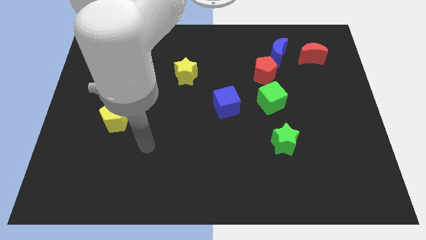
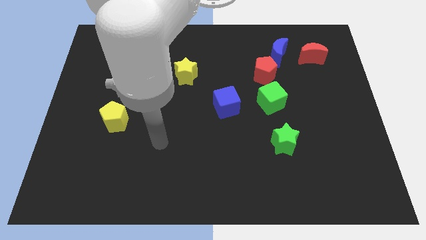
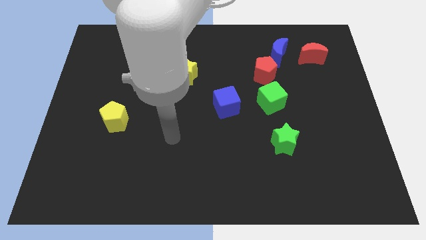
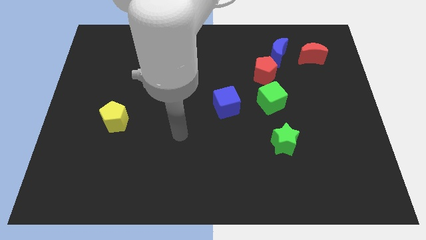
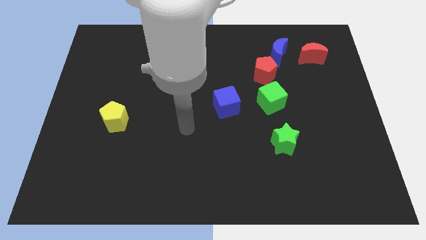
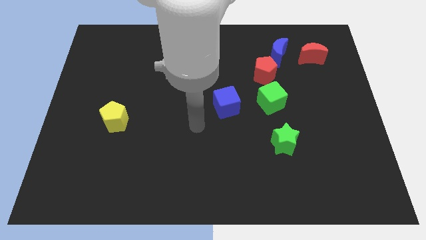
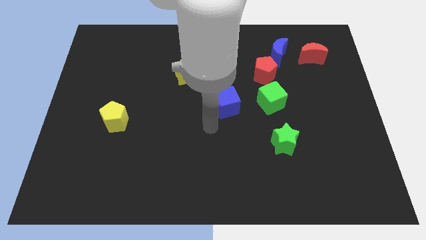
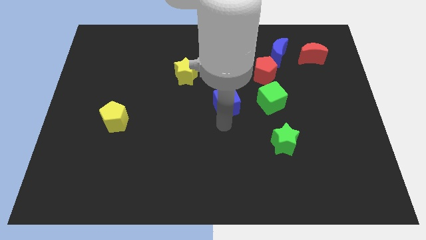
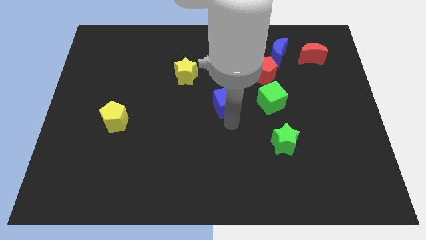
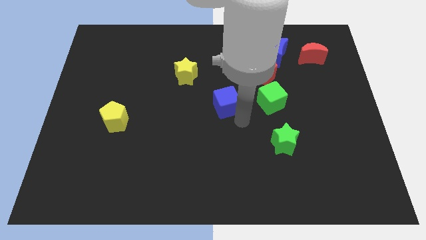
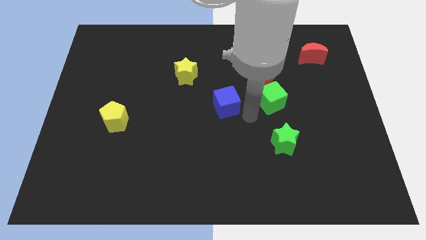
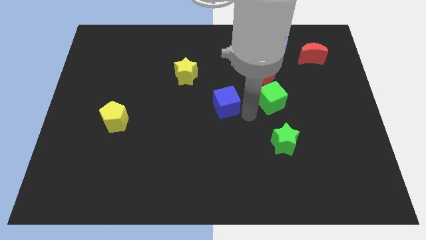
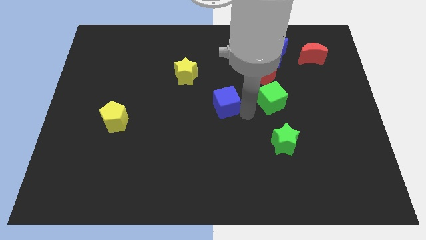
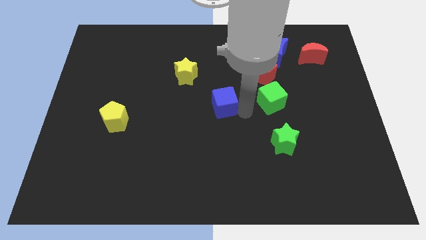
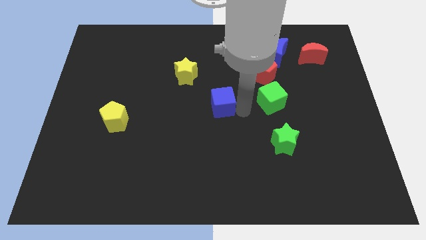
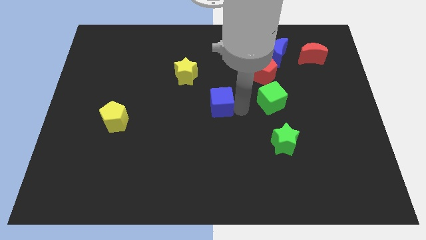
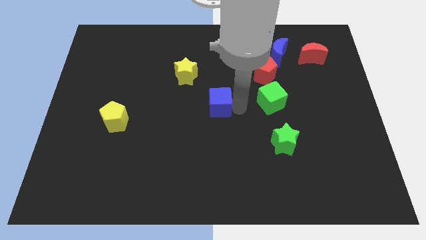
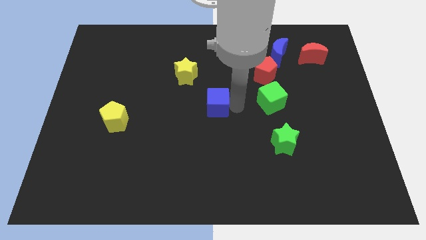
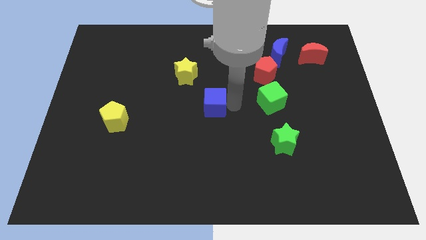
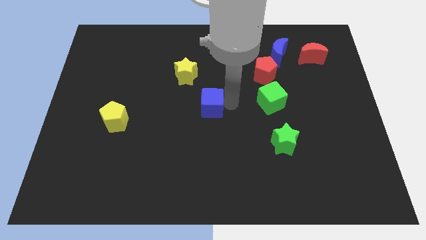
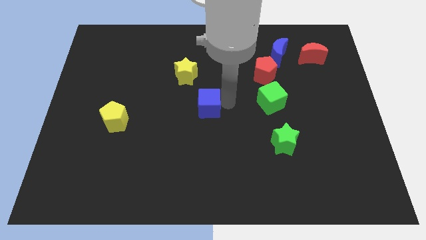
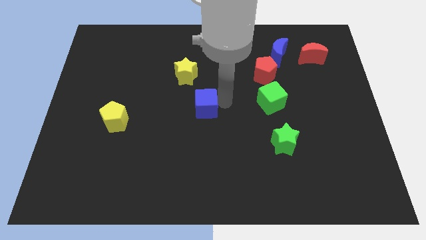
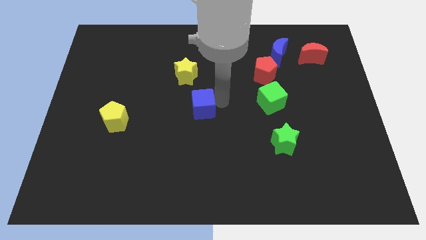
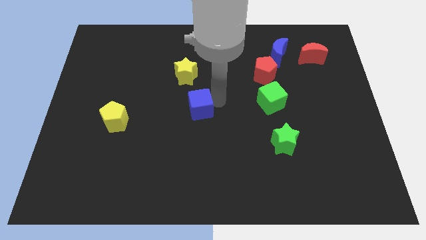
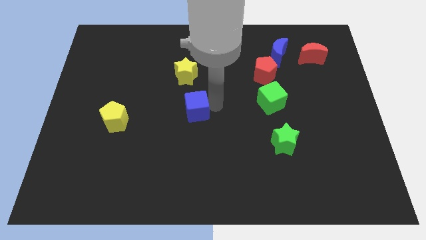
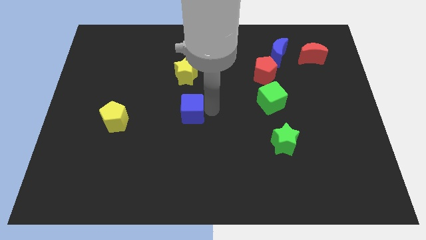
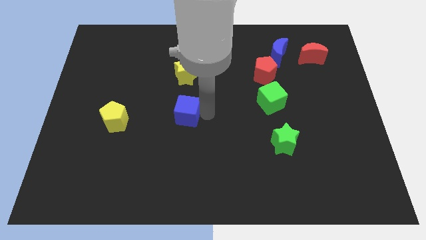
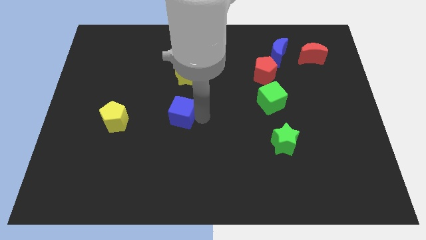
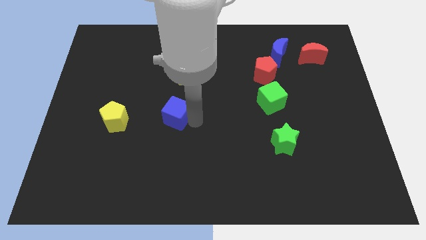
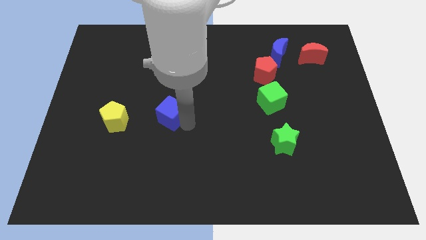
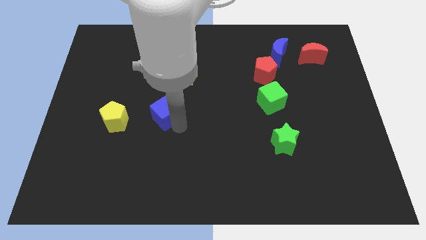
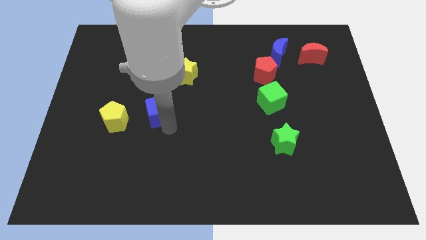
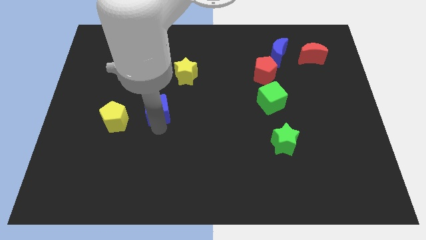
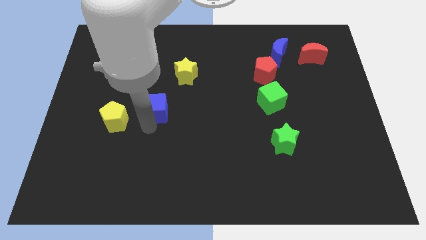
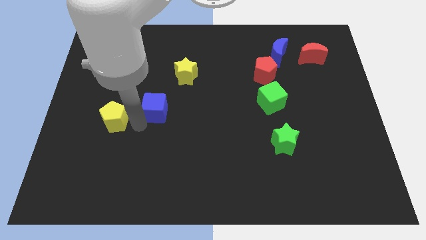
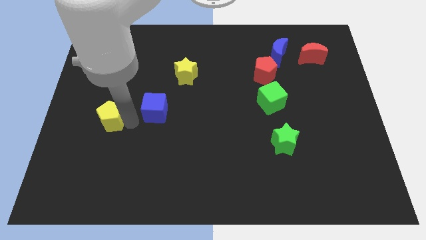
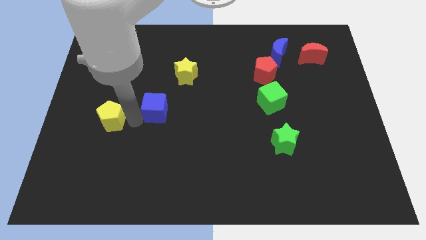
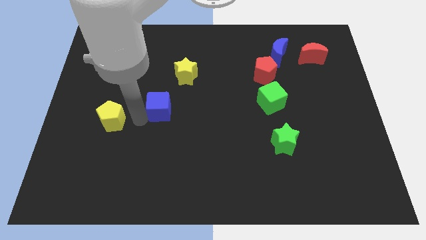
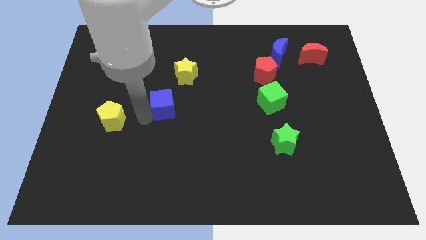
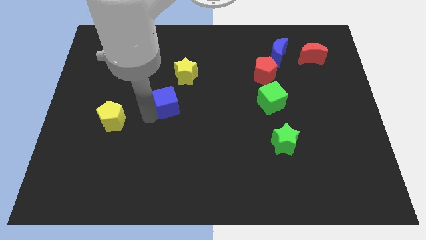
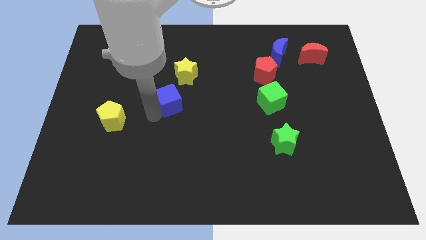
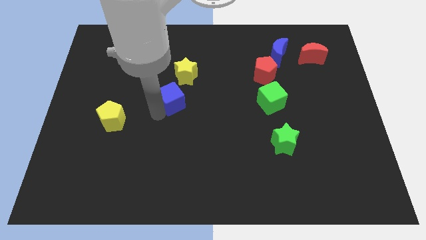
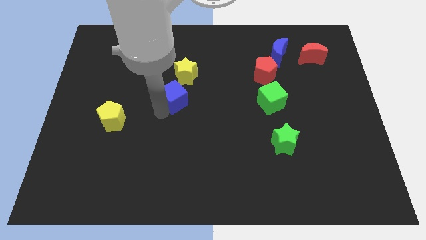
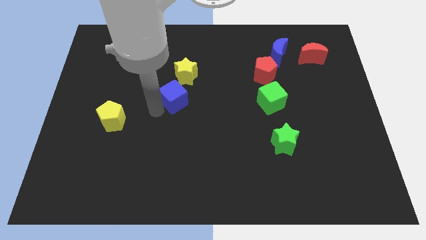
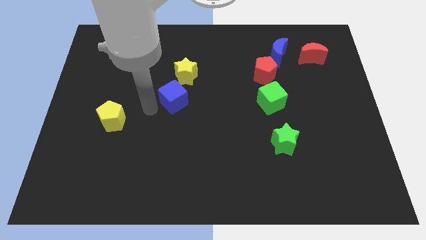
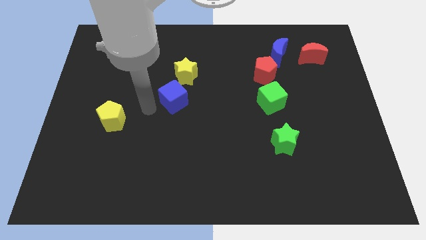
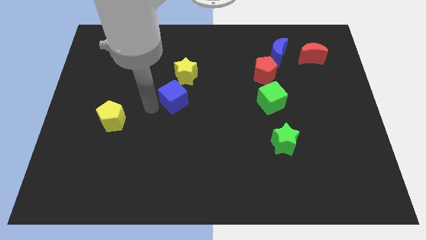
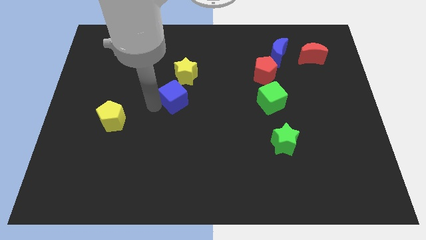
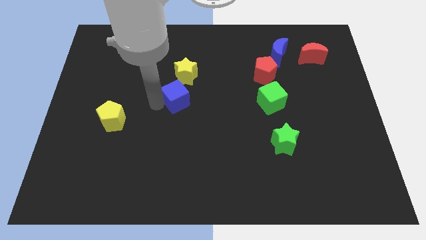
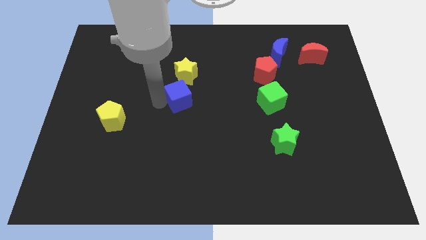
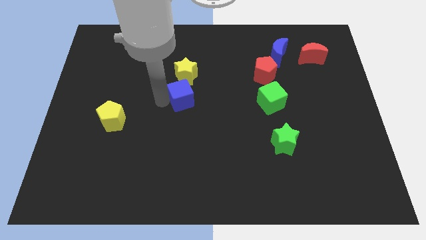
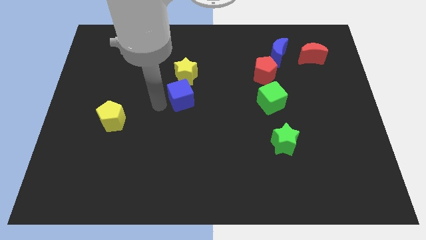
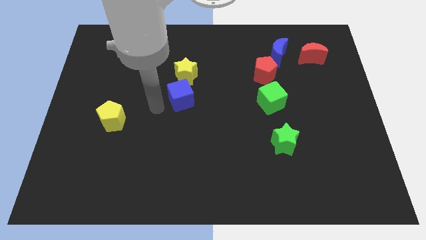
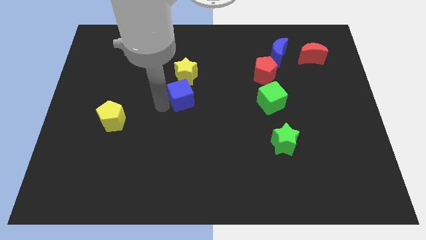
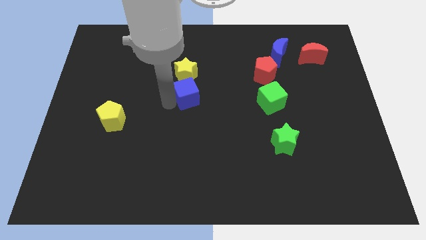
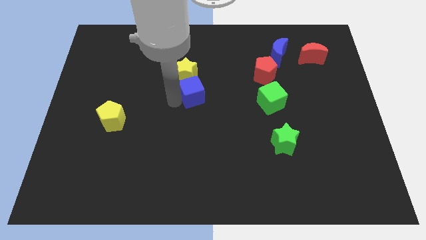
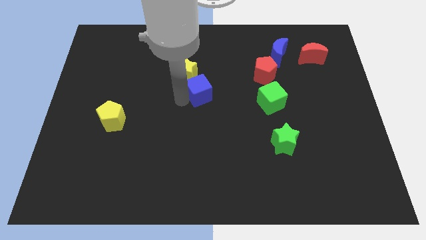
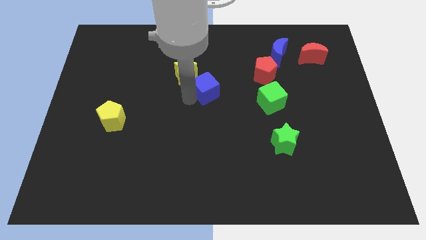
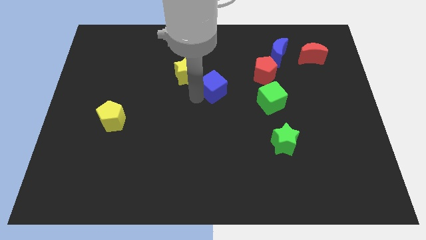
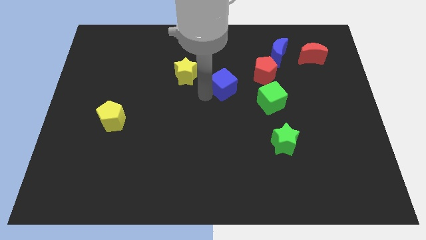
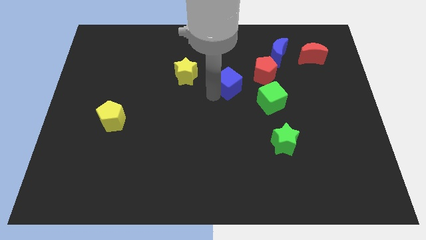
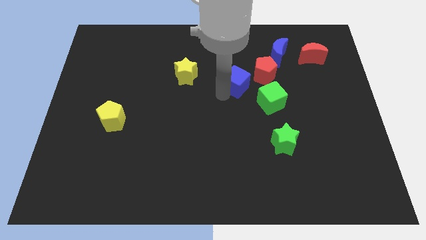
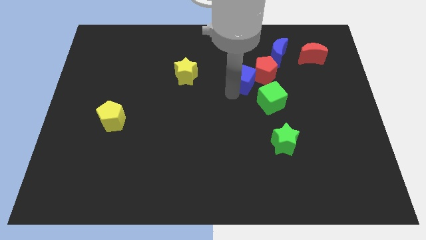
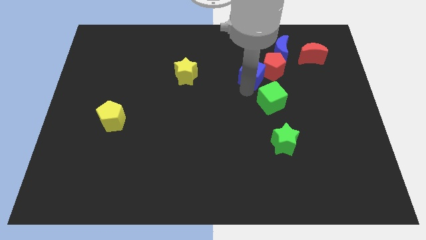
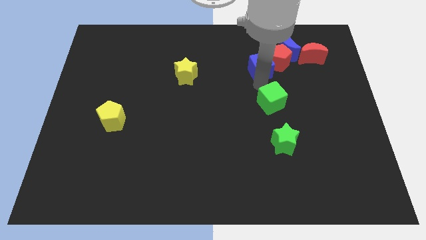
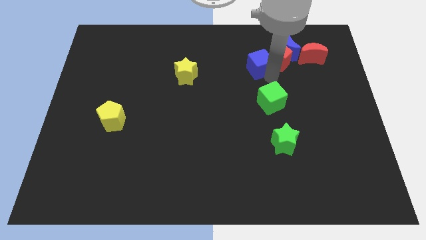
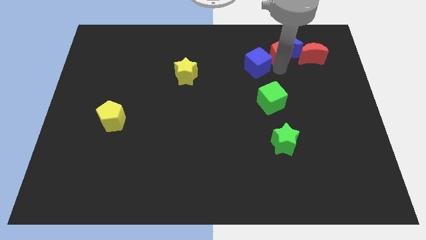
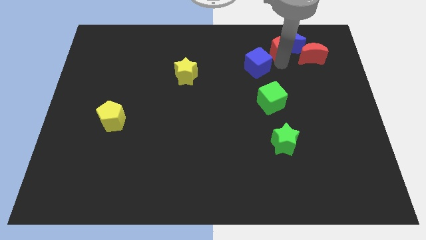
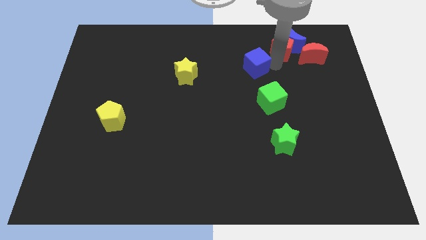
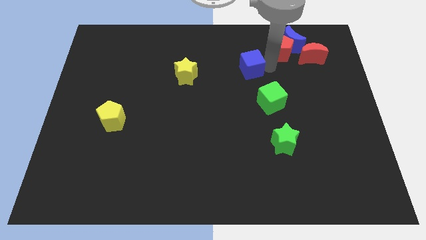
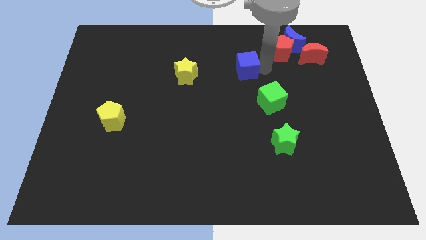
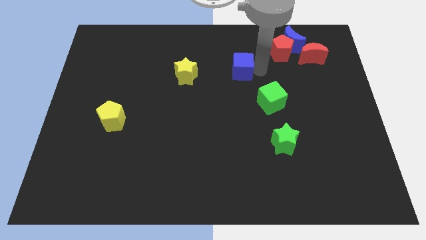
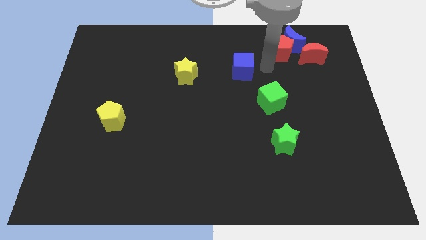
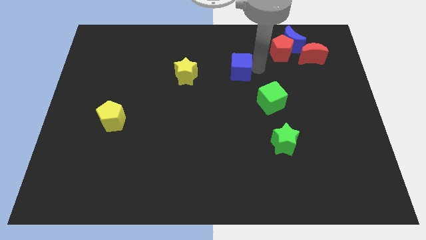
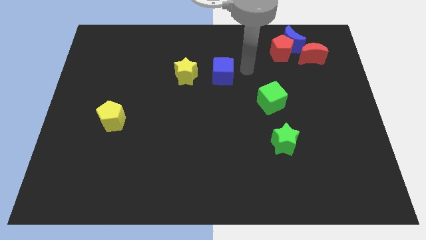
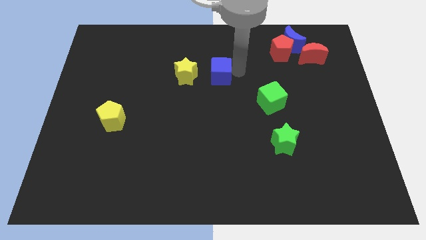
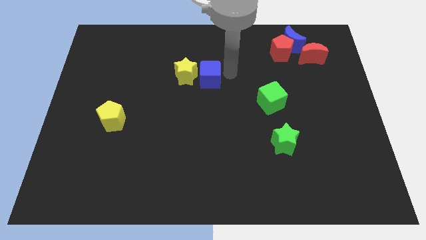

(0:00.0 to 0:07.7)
put the blue cube next to the yellow star
